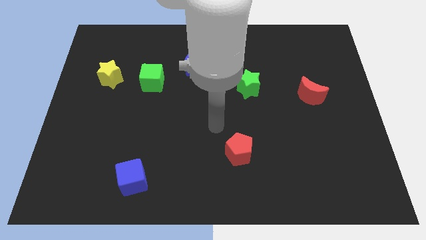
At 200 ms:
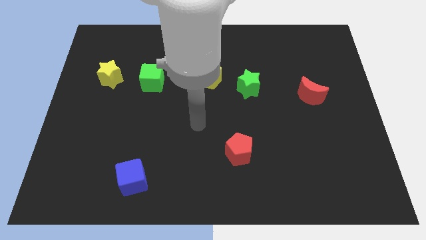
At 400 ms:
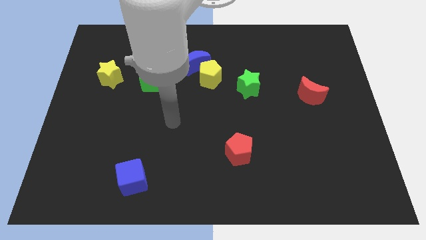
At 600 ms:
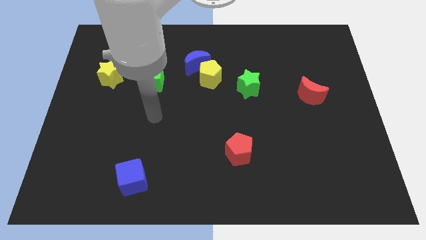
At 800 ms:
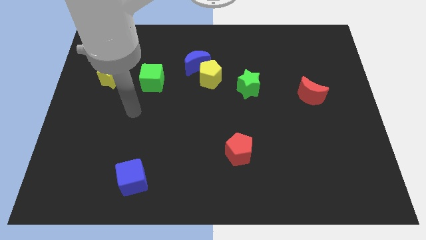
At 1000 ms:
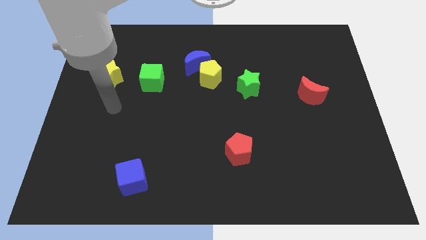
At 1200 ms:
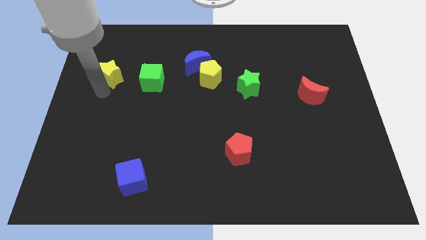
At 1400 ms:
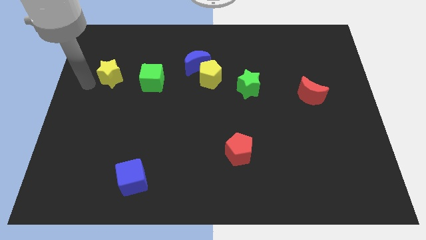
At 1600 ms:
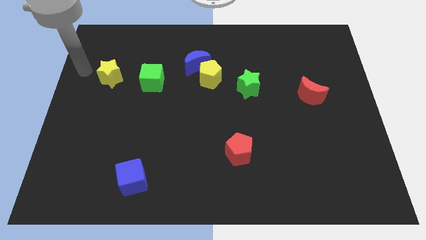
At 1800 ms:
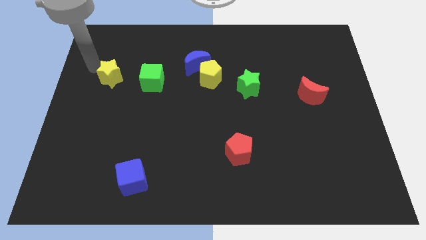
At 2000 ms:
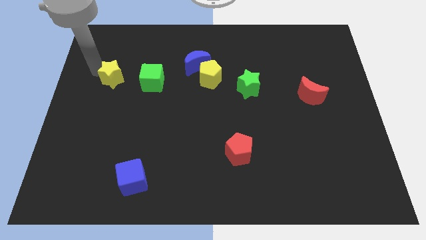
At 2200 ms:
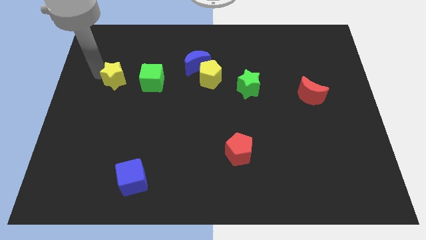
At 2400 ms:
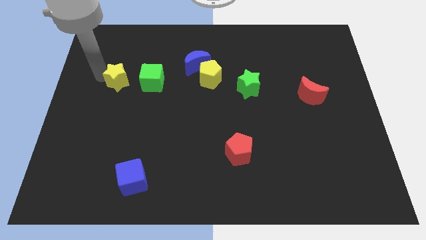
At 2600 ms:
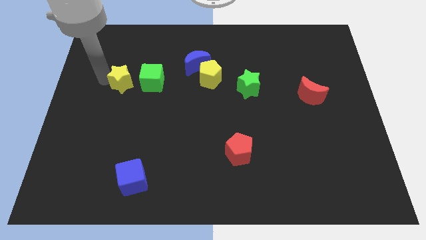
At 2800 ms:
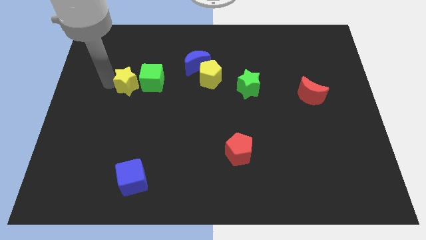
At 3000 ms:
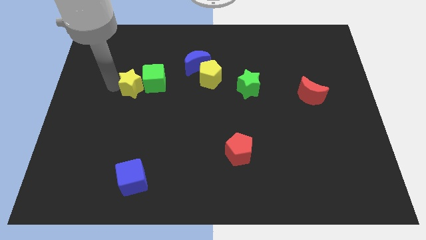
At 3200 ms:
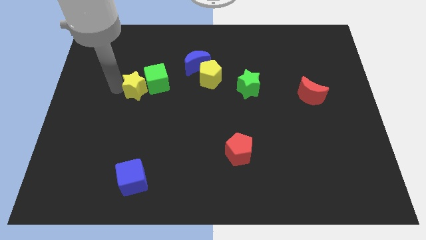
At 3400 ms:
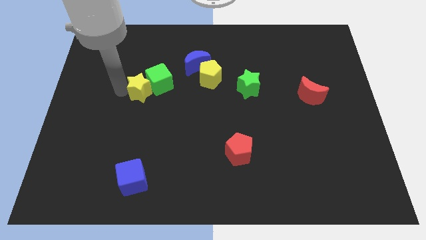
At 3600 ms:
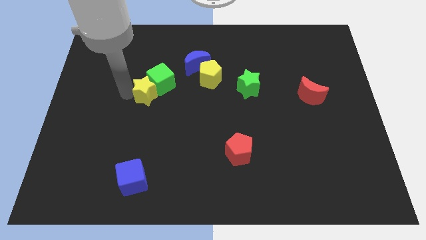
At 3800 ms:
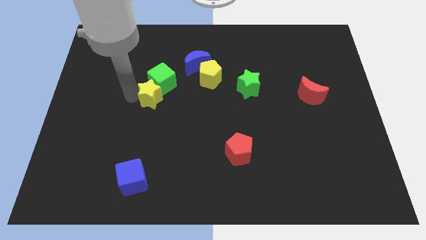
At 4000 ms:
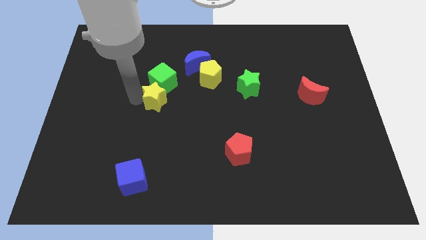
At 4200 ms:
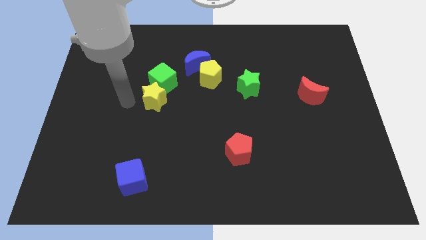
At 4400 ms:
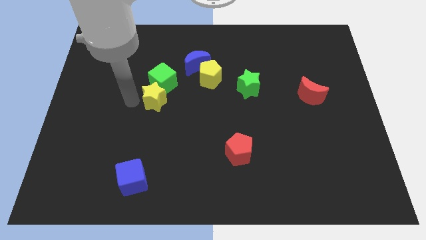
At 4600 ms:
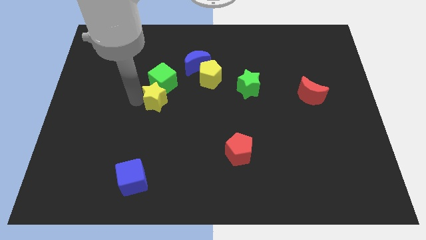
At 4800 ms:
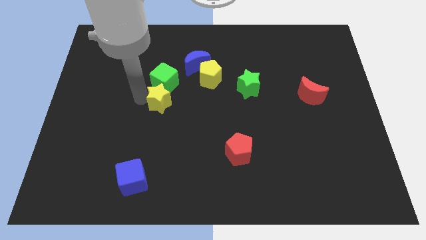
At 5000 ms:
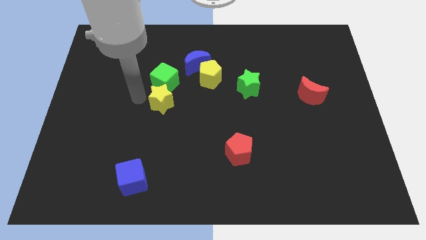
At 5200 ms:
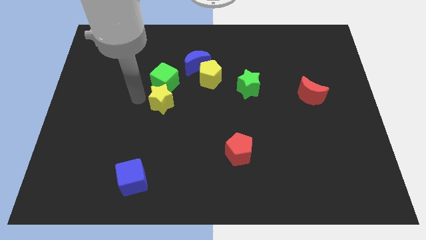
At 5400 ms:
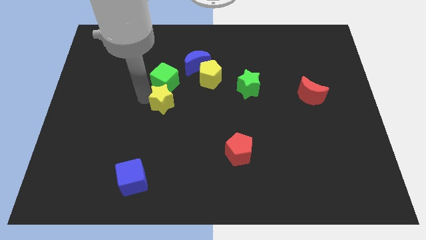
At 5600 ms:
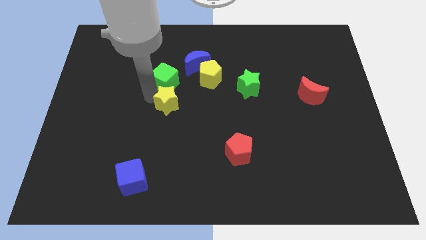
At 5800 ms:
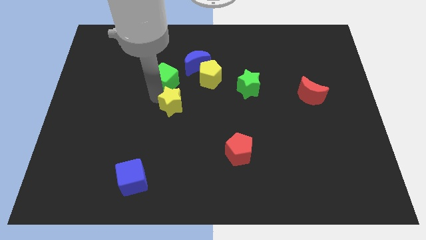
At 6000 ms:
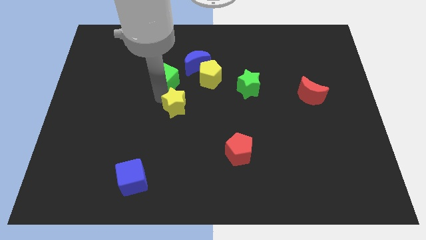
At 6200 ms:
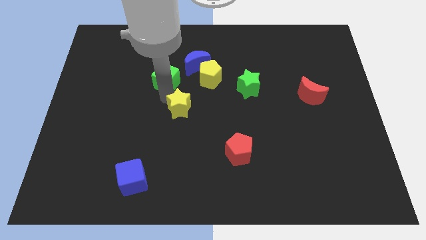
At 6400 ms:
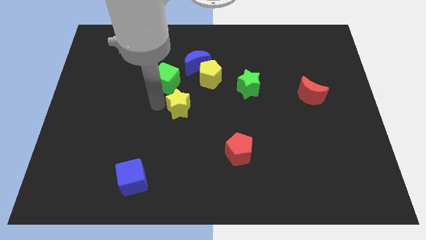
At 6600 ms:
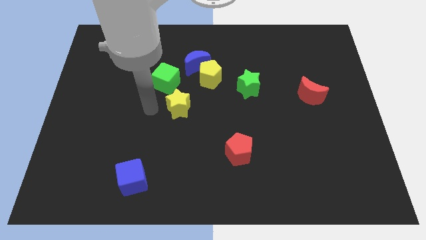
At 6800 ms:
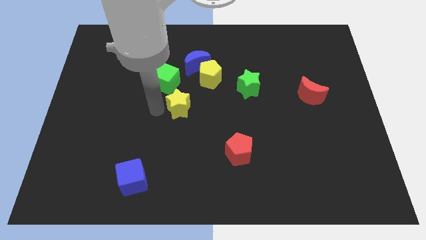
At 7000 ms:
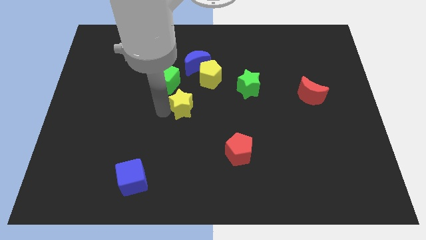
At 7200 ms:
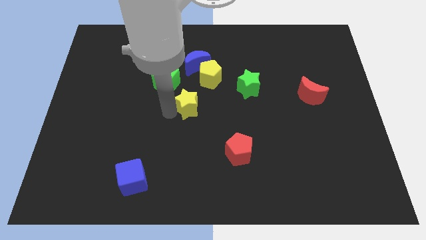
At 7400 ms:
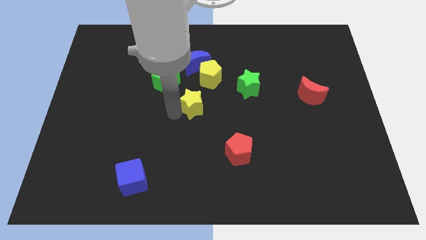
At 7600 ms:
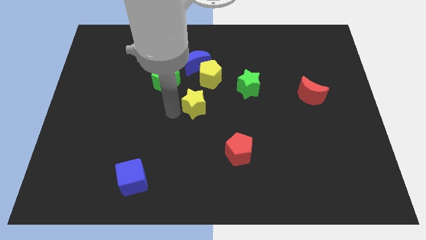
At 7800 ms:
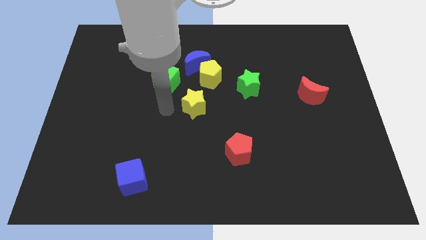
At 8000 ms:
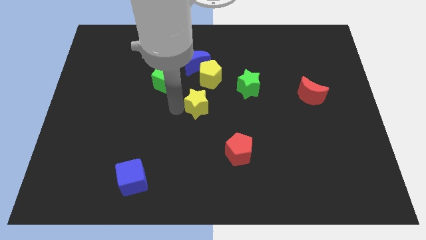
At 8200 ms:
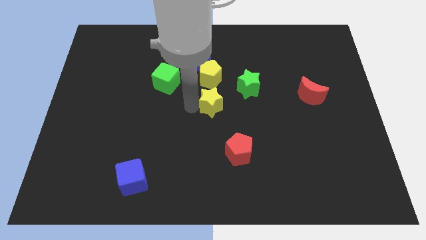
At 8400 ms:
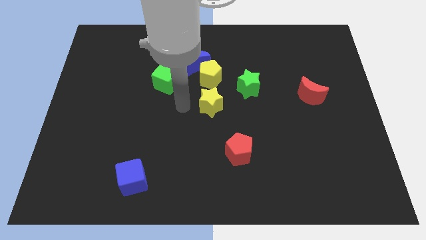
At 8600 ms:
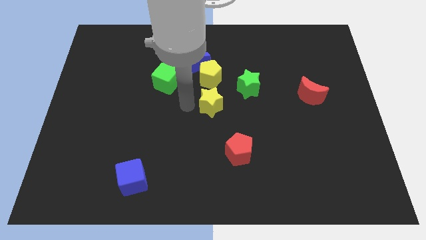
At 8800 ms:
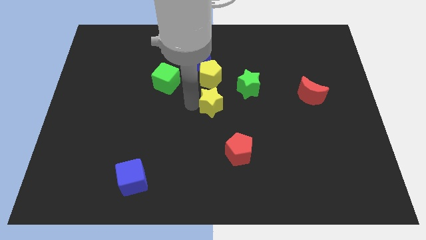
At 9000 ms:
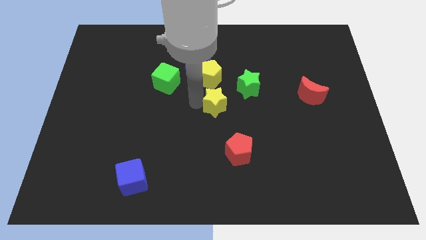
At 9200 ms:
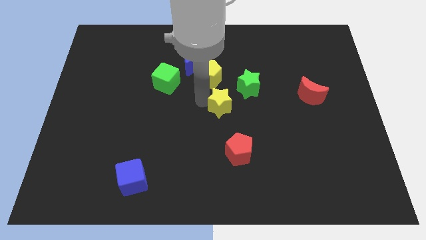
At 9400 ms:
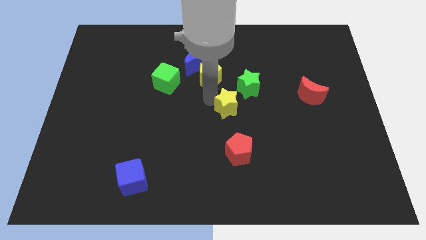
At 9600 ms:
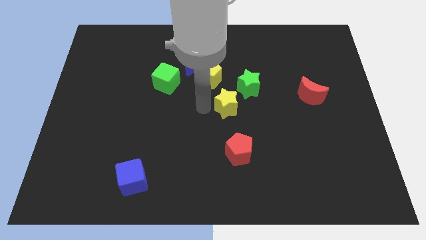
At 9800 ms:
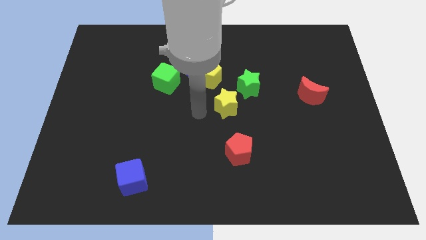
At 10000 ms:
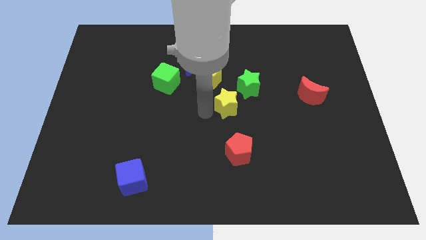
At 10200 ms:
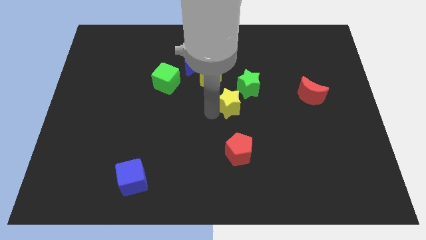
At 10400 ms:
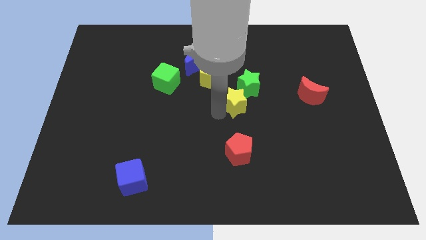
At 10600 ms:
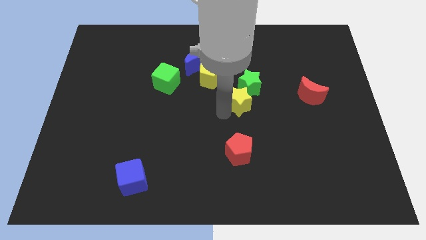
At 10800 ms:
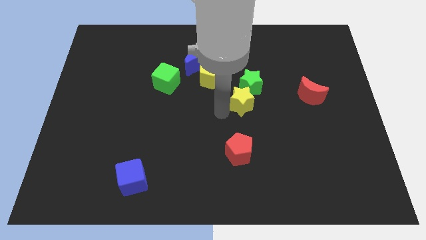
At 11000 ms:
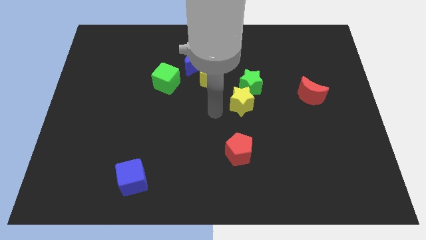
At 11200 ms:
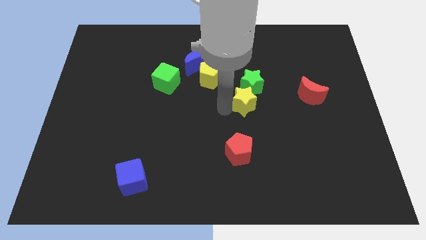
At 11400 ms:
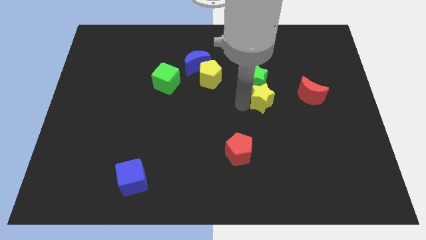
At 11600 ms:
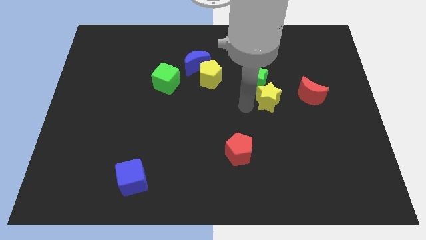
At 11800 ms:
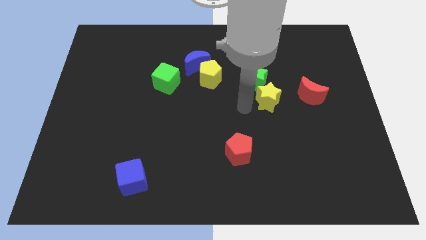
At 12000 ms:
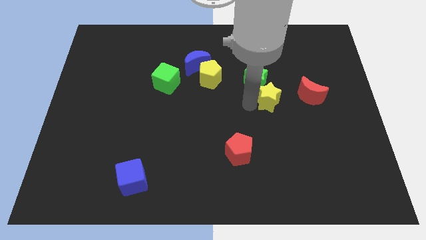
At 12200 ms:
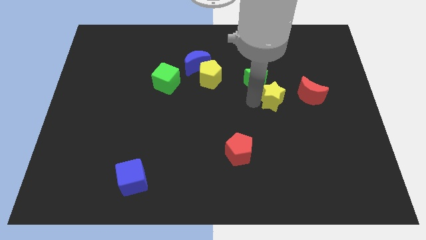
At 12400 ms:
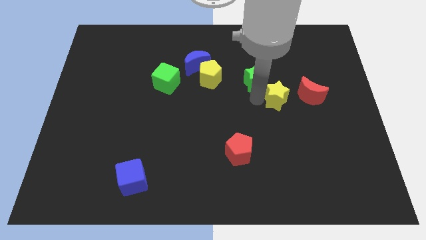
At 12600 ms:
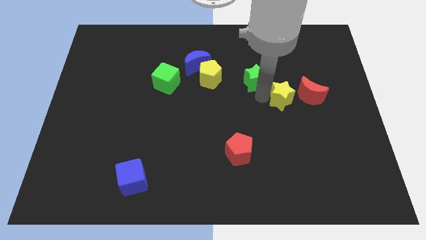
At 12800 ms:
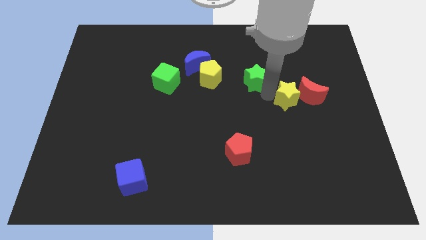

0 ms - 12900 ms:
slide the yellow star next to the red moon

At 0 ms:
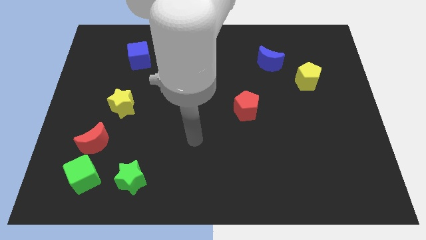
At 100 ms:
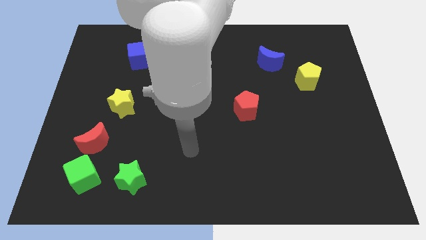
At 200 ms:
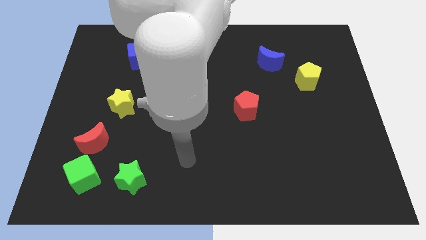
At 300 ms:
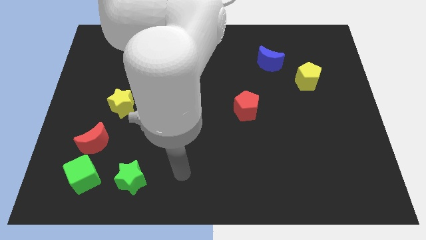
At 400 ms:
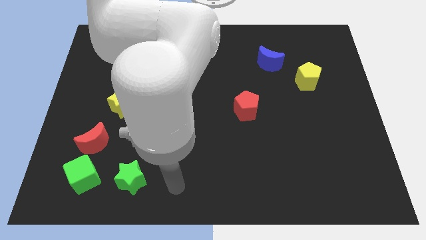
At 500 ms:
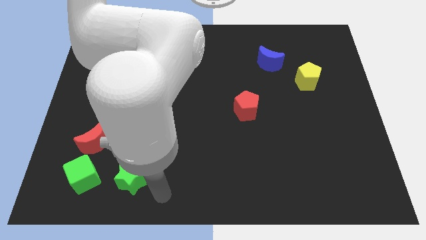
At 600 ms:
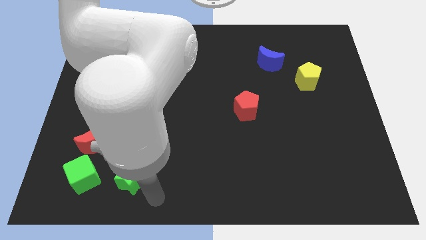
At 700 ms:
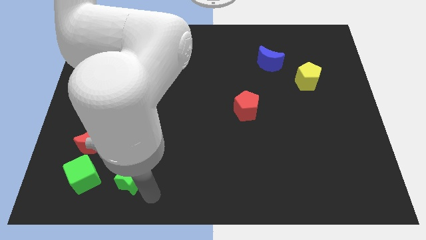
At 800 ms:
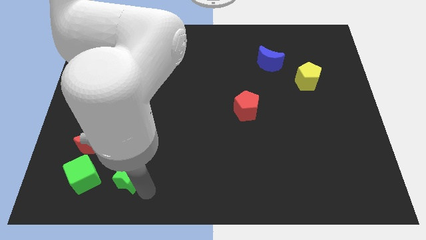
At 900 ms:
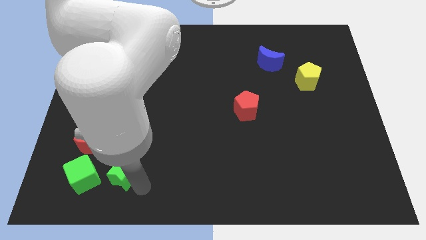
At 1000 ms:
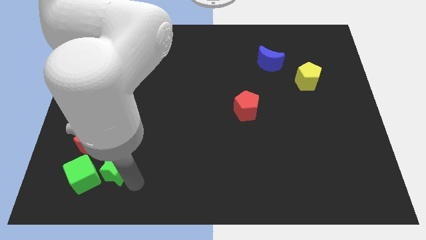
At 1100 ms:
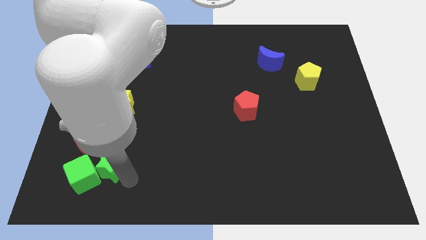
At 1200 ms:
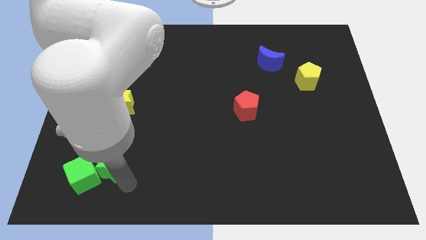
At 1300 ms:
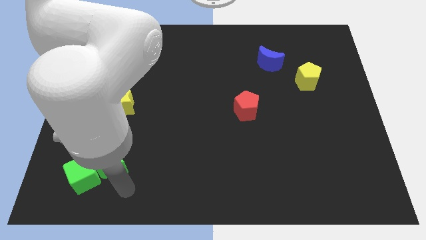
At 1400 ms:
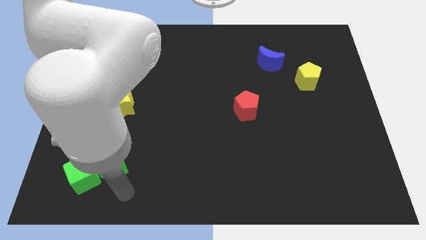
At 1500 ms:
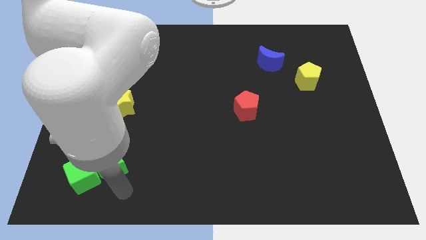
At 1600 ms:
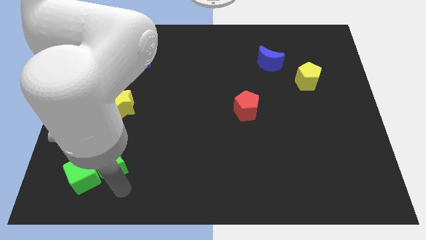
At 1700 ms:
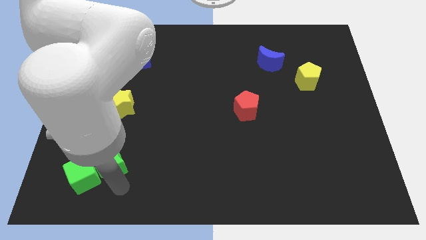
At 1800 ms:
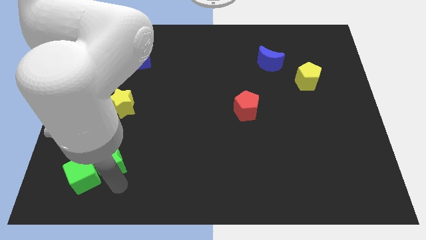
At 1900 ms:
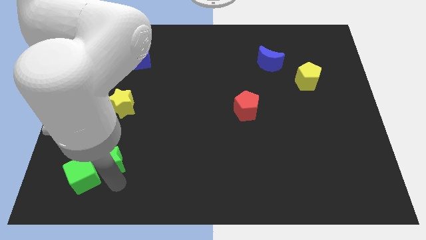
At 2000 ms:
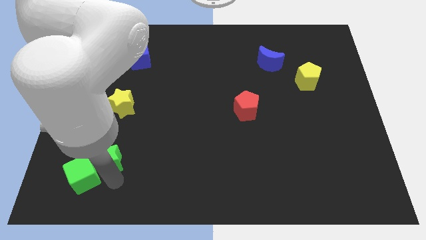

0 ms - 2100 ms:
put the green star to the red moon
